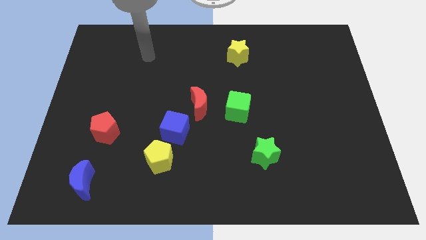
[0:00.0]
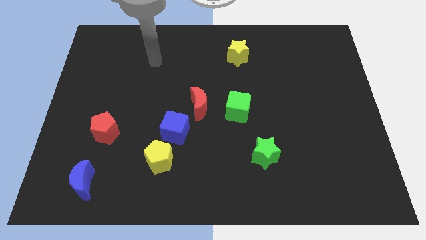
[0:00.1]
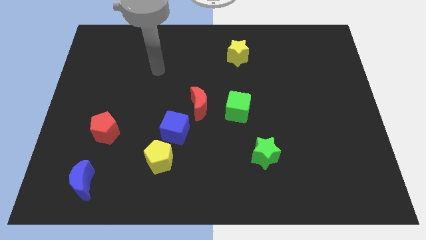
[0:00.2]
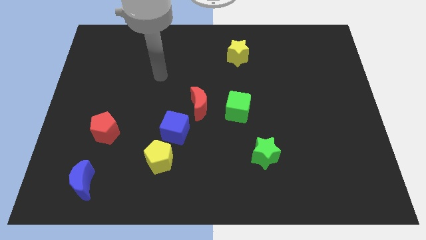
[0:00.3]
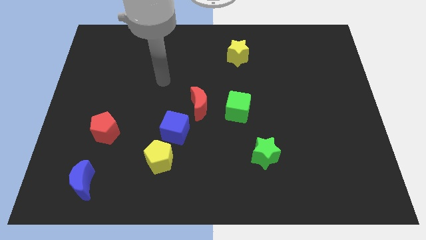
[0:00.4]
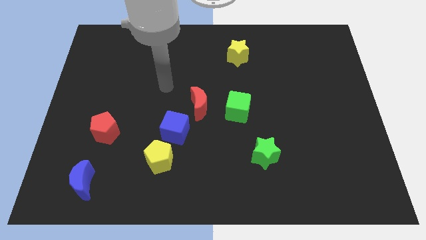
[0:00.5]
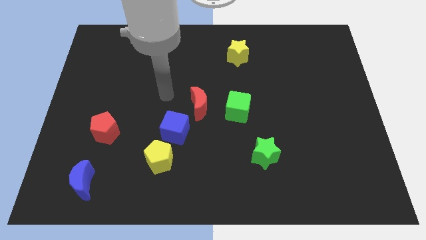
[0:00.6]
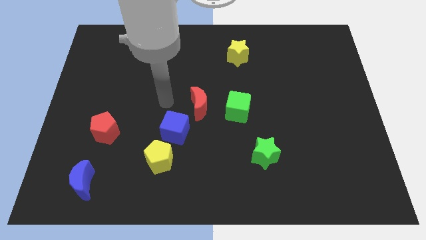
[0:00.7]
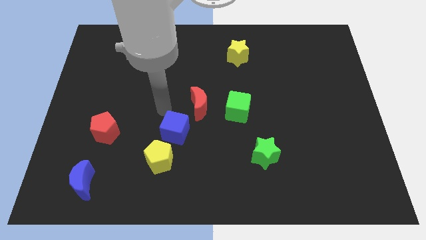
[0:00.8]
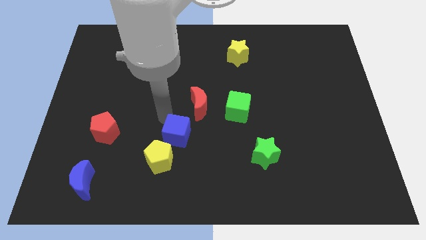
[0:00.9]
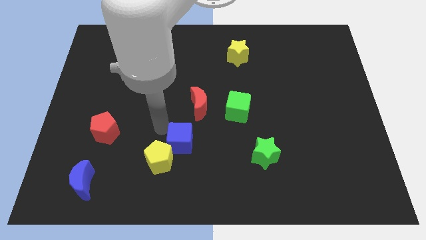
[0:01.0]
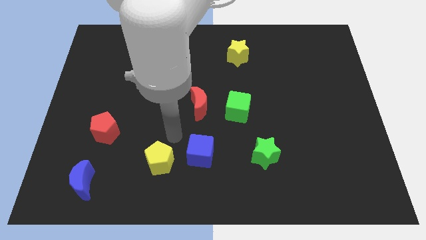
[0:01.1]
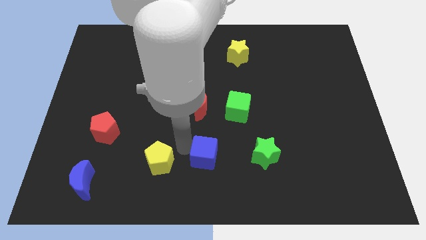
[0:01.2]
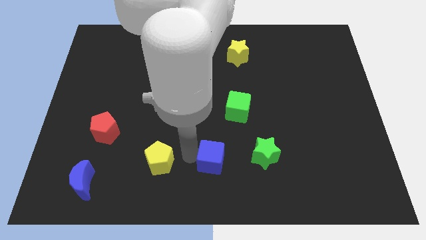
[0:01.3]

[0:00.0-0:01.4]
move the yellow pentagon away from the blue cube

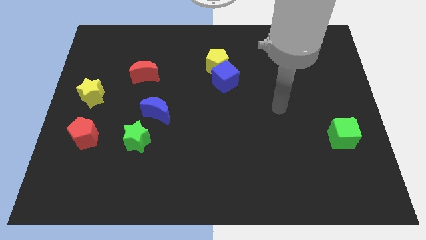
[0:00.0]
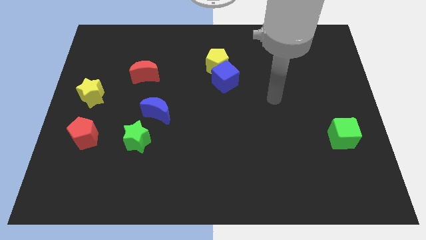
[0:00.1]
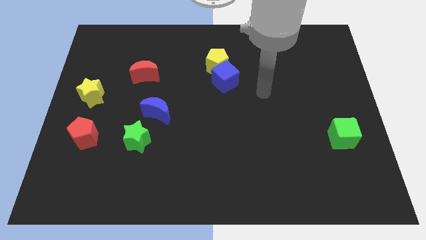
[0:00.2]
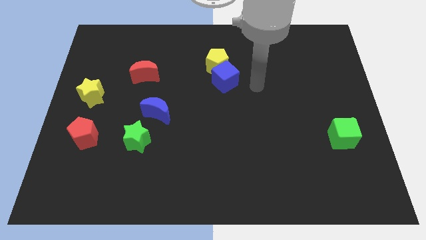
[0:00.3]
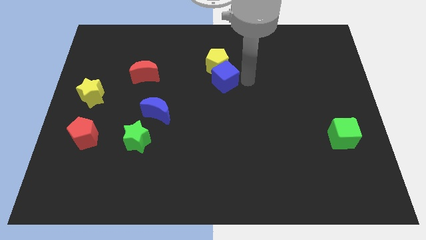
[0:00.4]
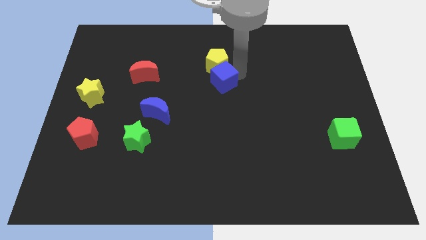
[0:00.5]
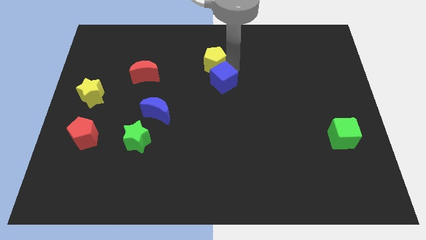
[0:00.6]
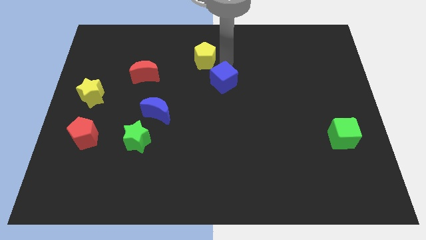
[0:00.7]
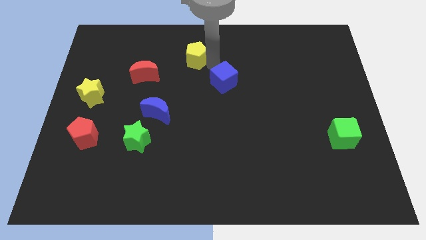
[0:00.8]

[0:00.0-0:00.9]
move the blue cube away from the yellow pentagon

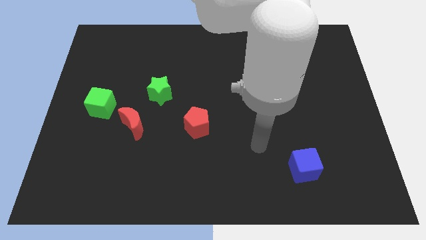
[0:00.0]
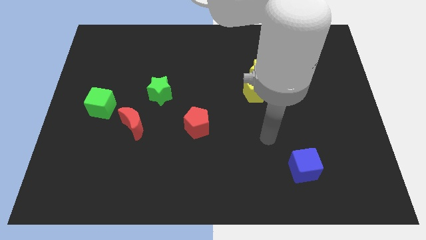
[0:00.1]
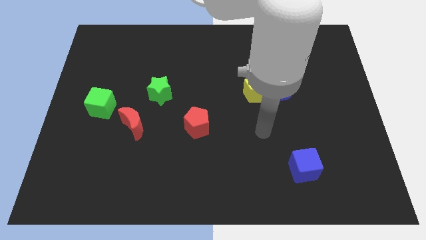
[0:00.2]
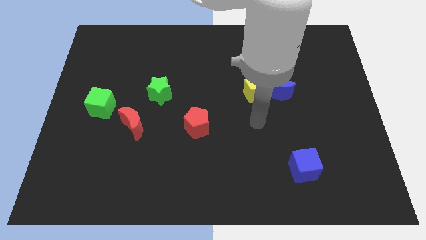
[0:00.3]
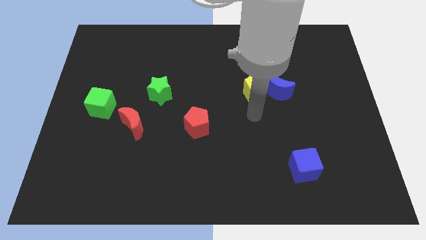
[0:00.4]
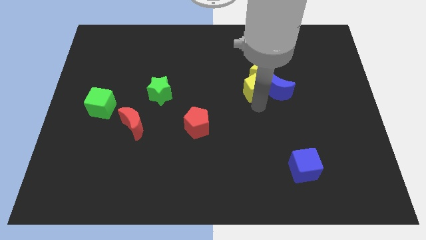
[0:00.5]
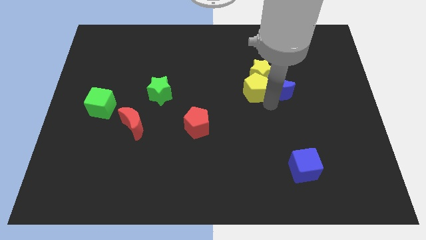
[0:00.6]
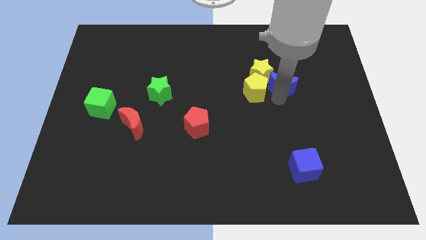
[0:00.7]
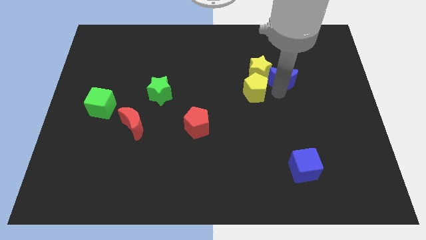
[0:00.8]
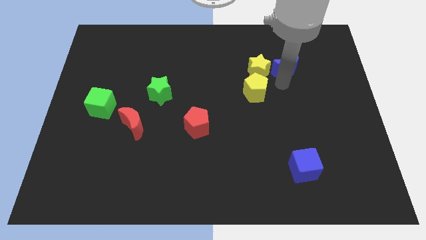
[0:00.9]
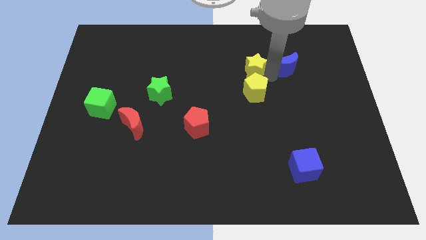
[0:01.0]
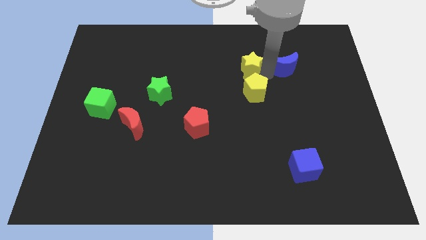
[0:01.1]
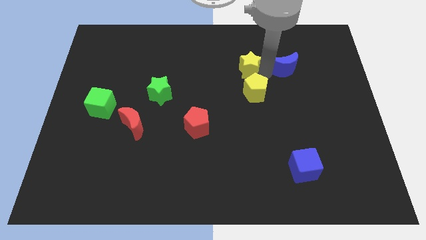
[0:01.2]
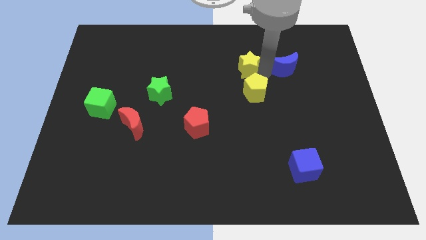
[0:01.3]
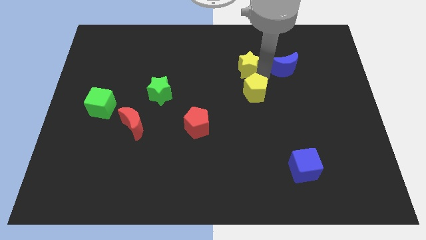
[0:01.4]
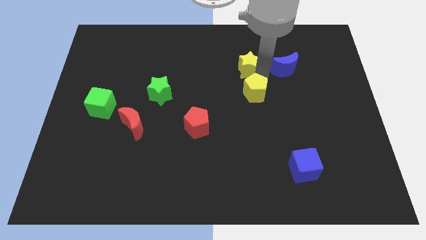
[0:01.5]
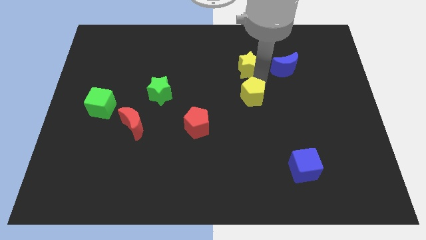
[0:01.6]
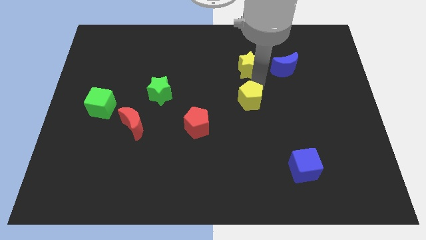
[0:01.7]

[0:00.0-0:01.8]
pull the yellow pentagon apart from the blue moon and yellow star

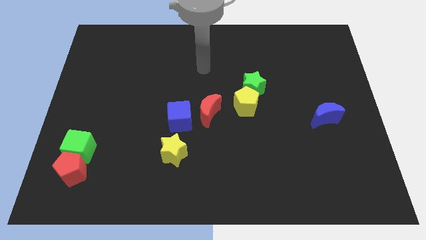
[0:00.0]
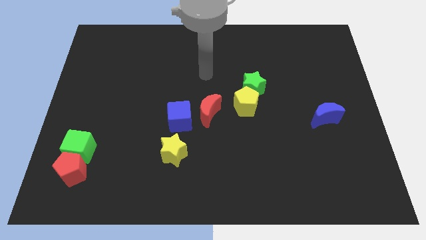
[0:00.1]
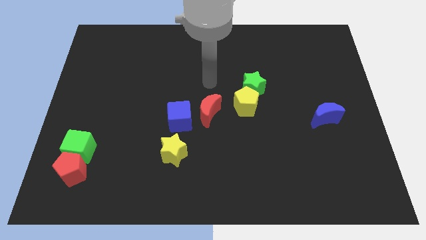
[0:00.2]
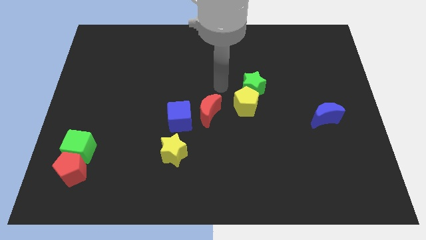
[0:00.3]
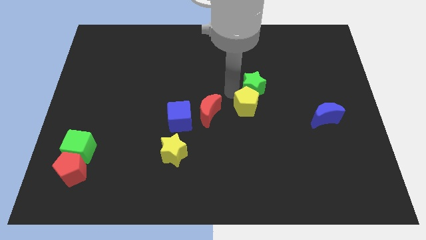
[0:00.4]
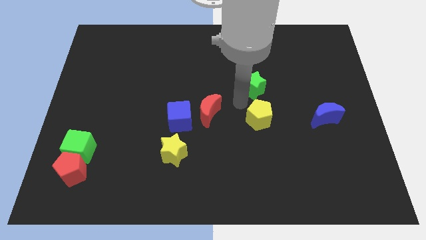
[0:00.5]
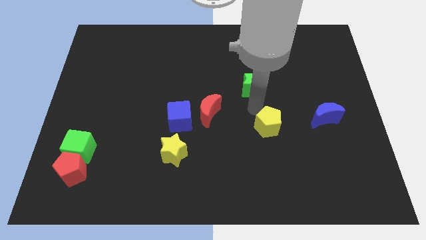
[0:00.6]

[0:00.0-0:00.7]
pull the green star apart from the yellow pentagon

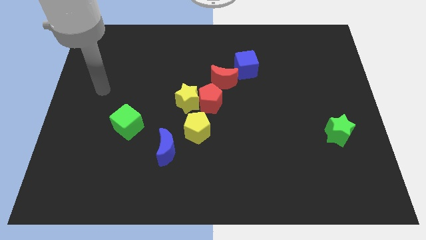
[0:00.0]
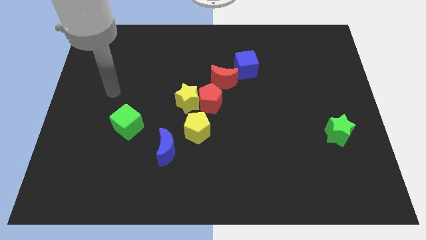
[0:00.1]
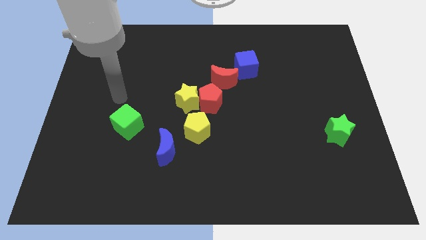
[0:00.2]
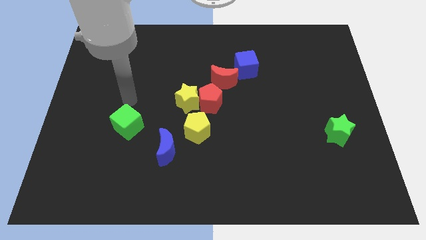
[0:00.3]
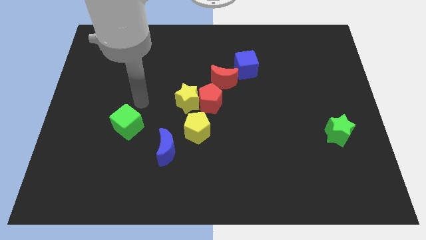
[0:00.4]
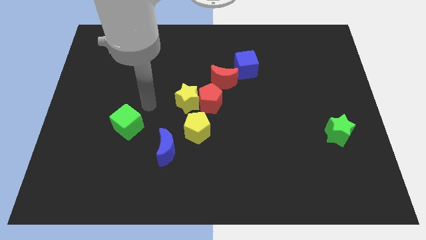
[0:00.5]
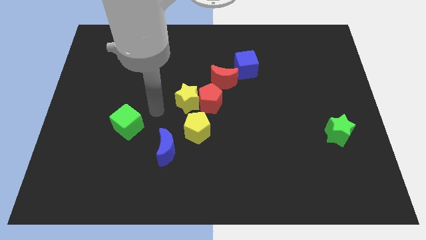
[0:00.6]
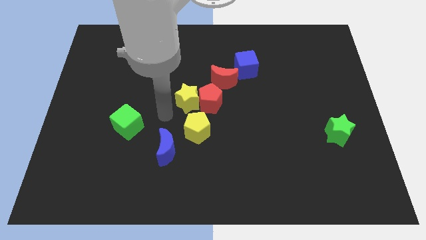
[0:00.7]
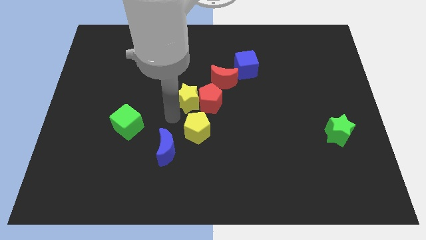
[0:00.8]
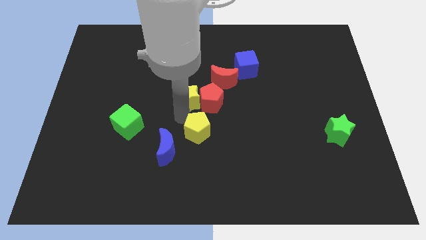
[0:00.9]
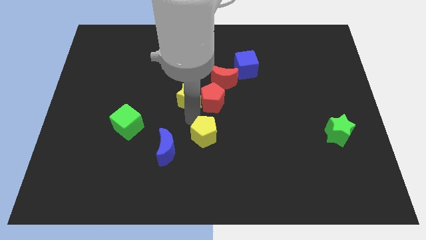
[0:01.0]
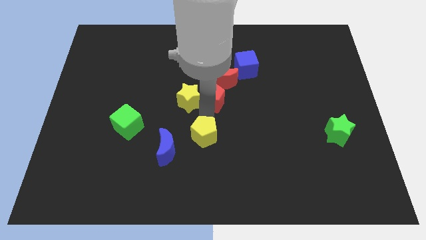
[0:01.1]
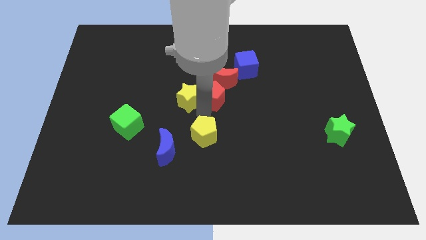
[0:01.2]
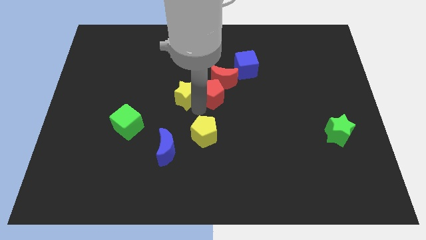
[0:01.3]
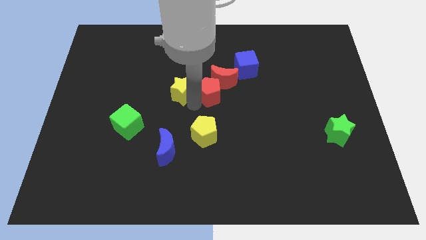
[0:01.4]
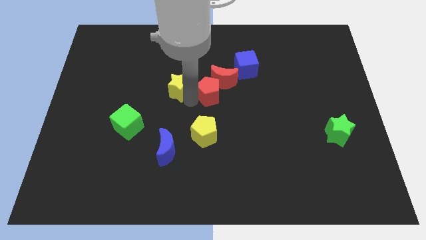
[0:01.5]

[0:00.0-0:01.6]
separate the yellow star from the red pentagon and yellow pentagon

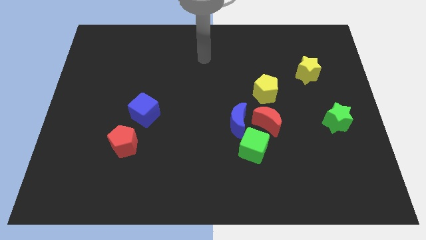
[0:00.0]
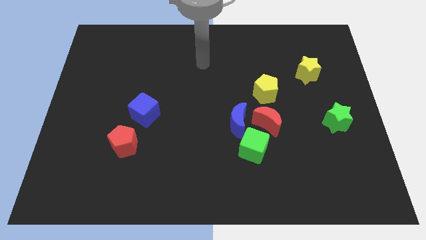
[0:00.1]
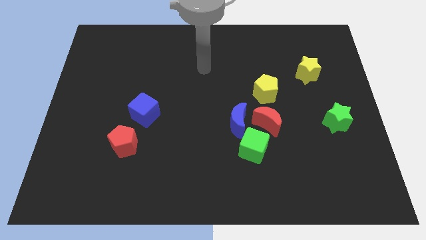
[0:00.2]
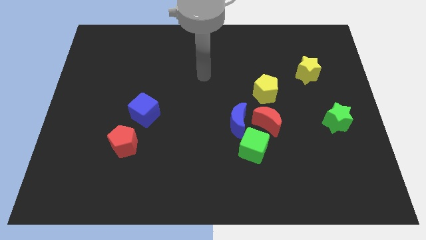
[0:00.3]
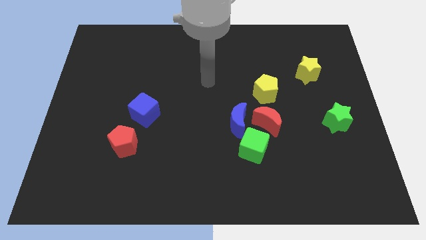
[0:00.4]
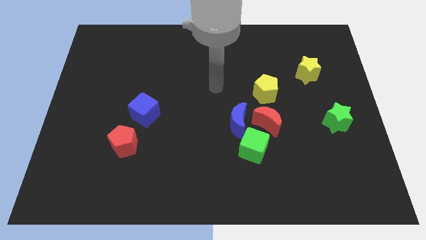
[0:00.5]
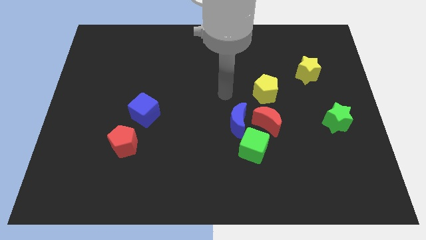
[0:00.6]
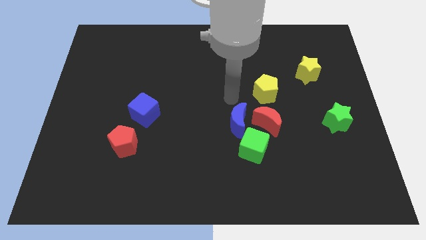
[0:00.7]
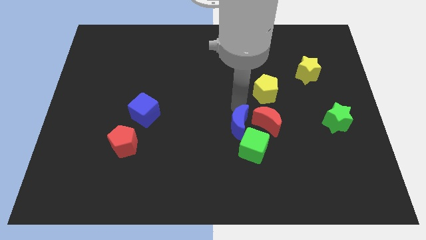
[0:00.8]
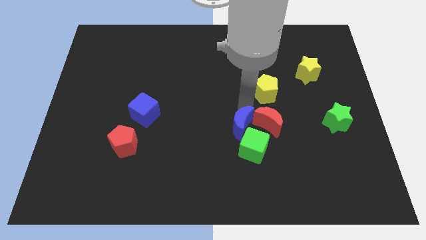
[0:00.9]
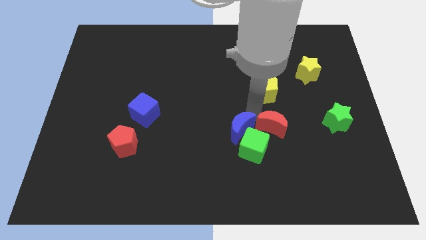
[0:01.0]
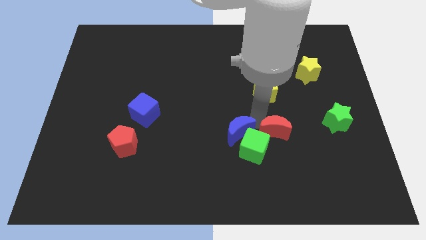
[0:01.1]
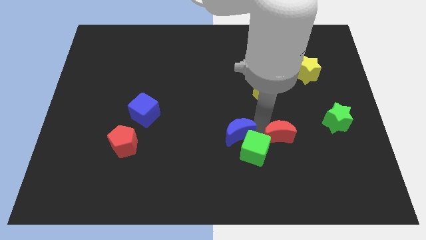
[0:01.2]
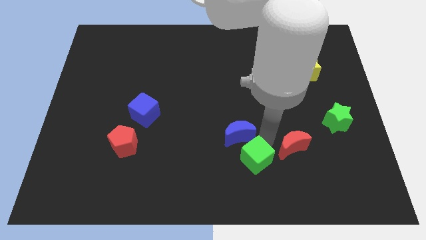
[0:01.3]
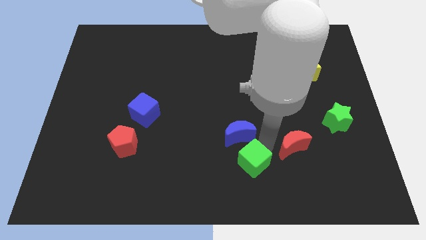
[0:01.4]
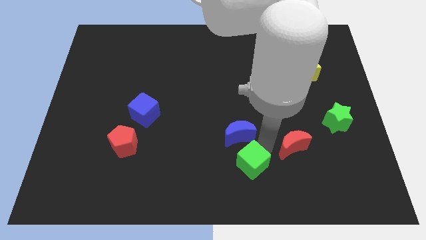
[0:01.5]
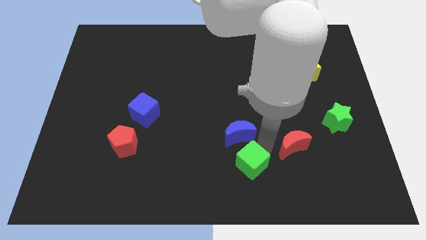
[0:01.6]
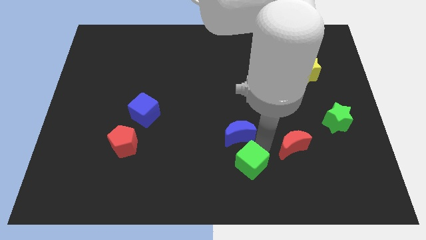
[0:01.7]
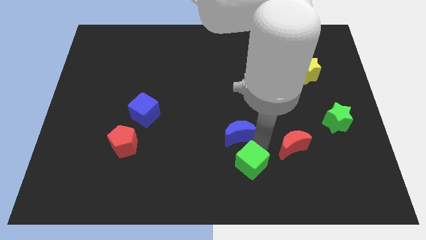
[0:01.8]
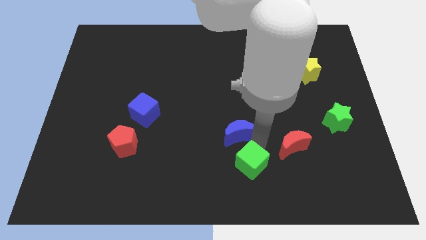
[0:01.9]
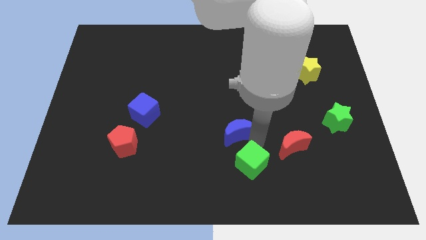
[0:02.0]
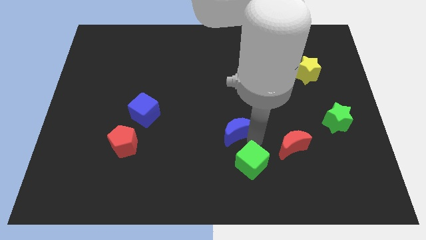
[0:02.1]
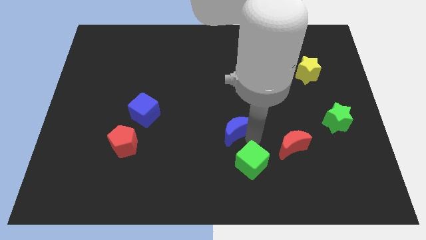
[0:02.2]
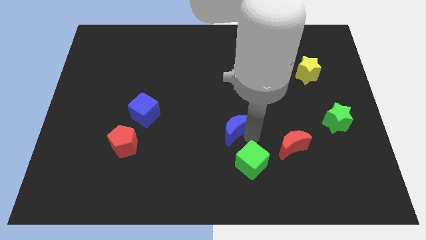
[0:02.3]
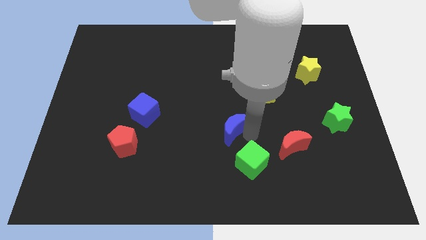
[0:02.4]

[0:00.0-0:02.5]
move the blue moon away from the red moon and green cube

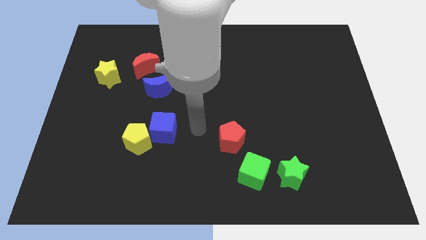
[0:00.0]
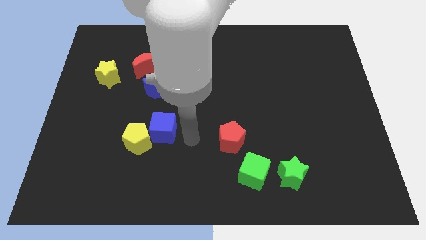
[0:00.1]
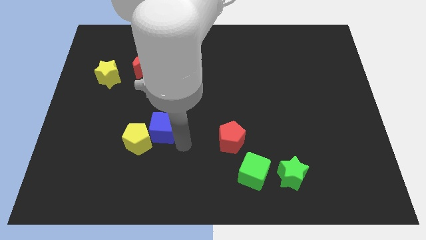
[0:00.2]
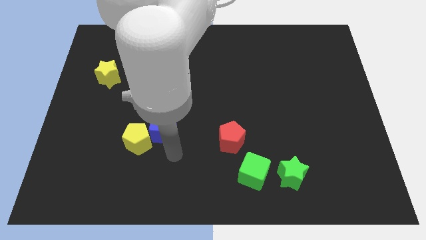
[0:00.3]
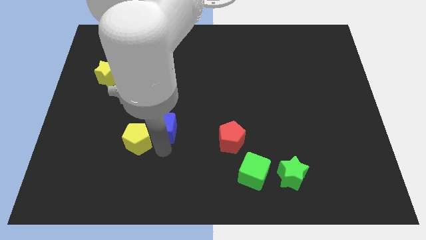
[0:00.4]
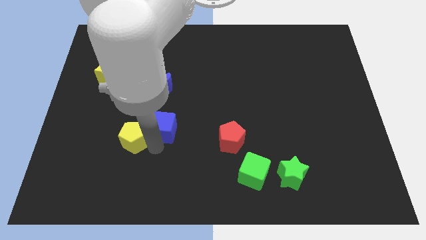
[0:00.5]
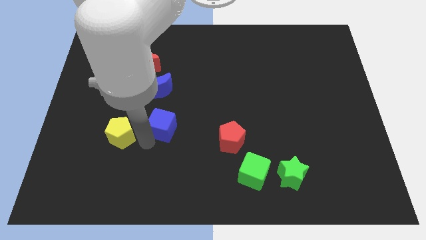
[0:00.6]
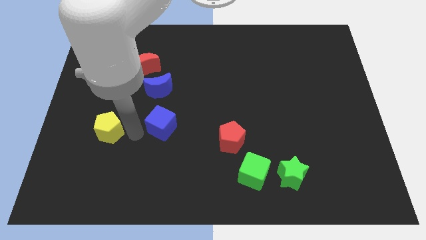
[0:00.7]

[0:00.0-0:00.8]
pull the blue cube apart from the yellow pentagon
